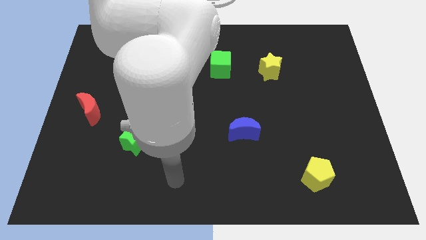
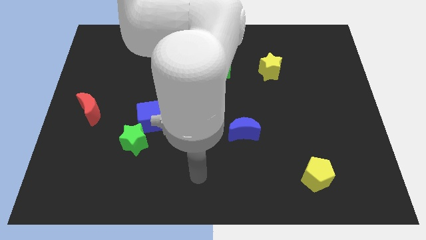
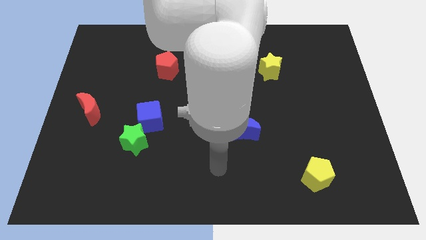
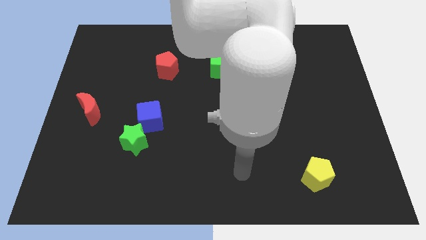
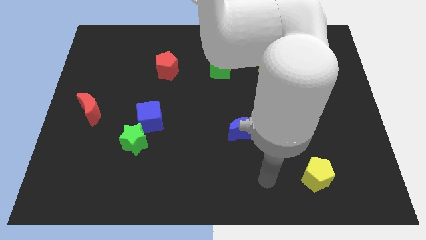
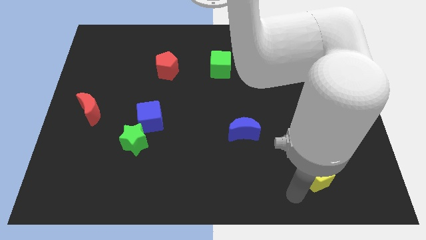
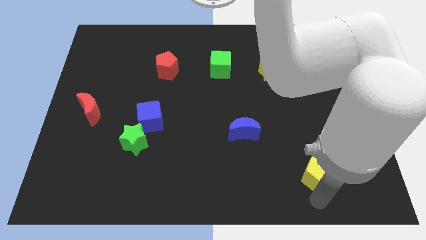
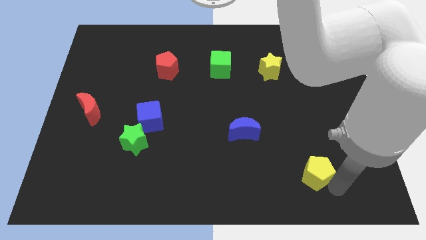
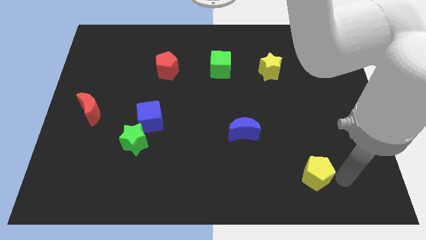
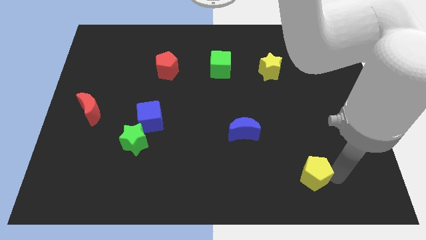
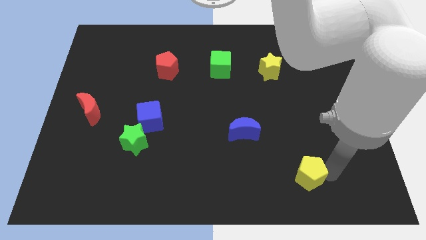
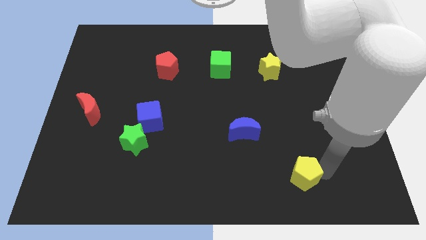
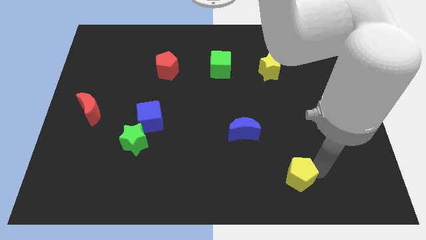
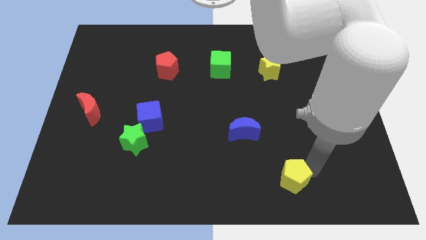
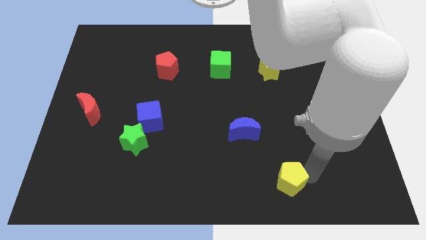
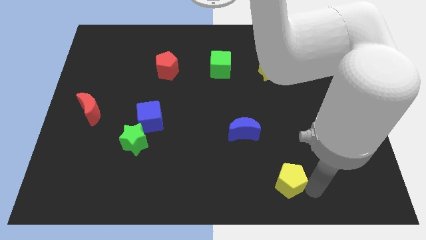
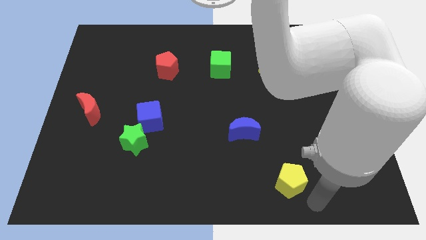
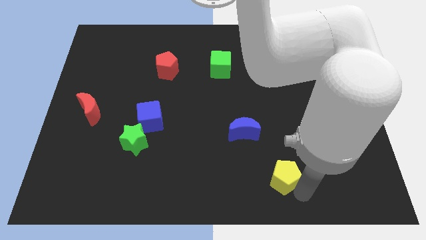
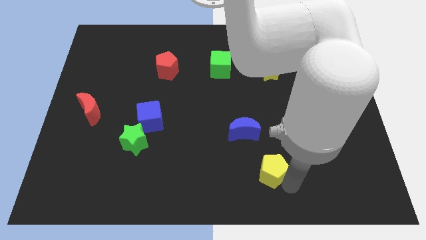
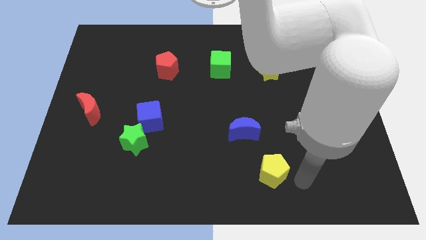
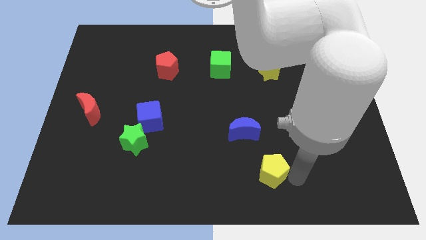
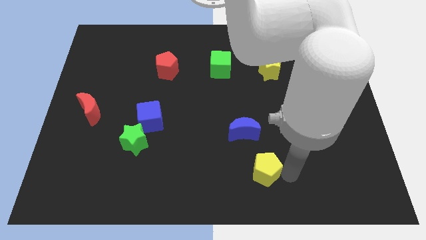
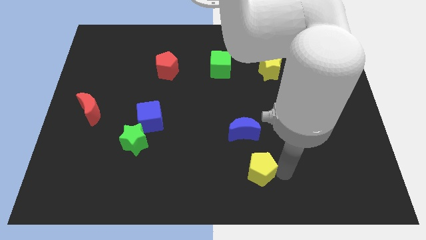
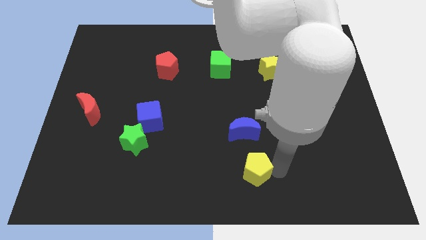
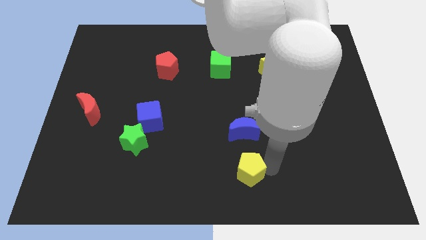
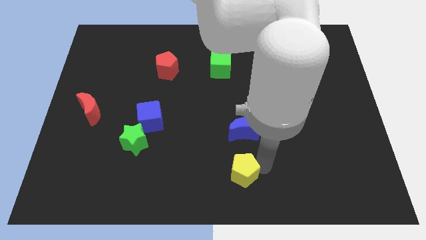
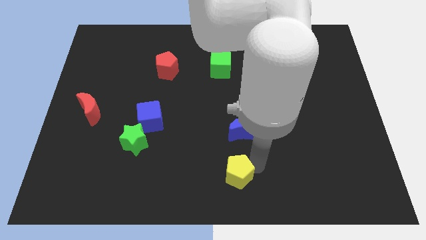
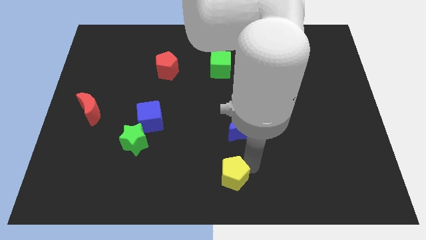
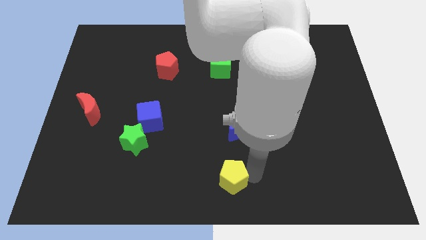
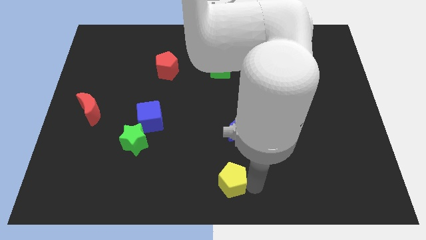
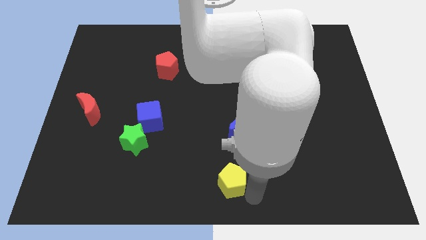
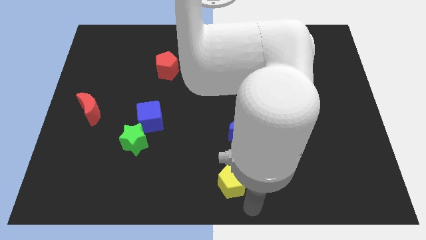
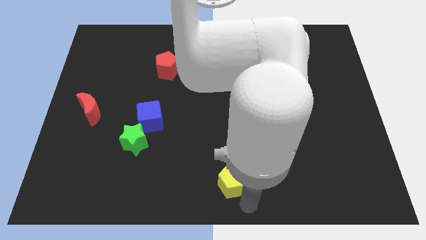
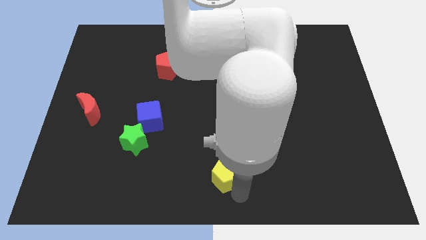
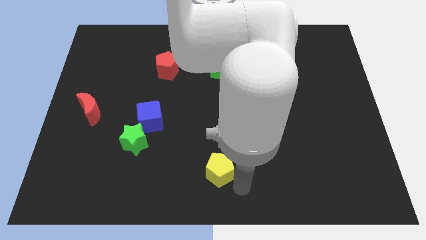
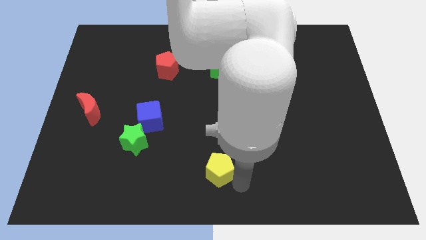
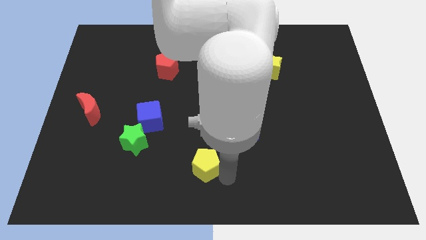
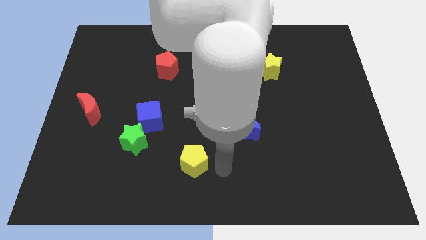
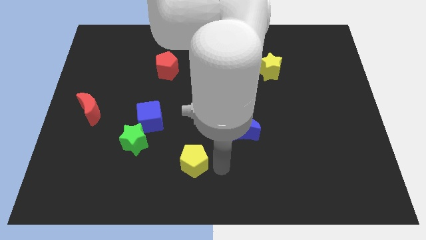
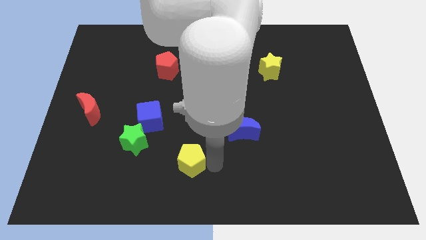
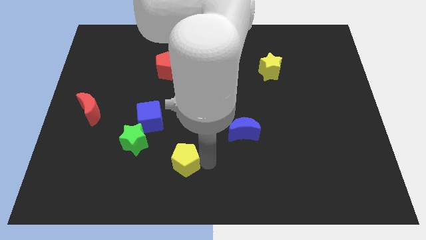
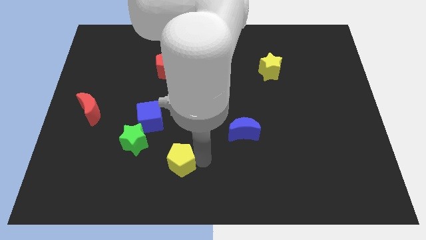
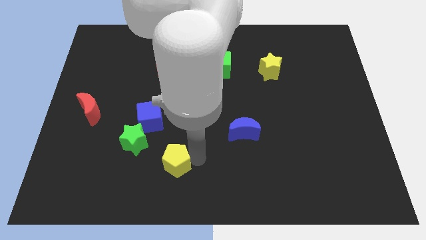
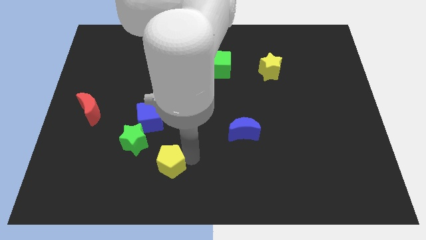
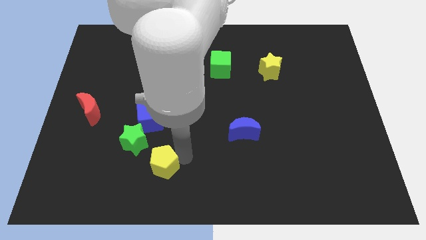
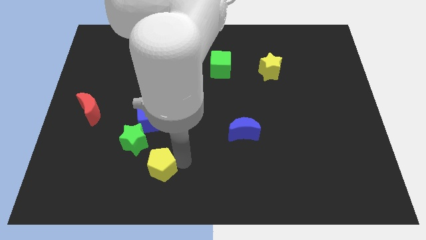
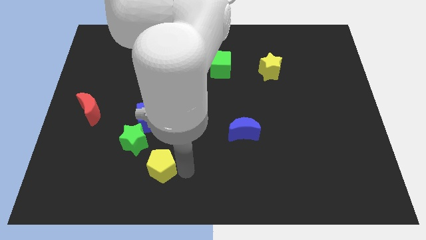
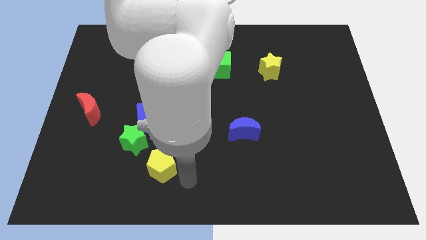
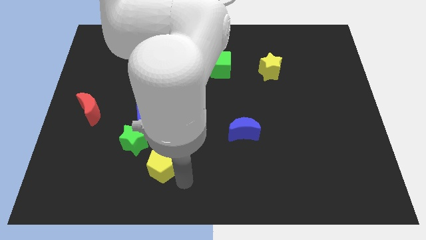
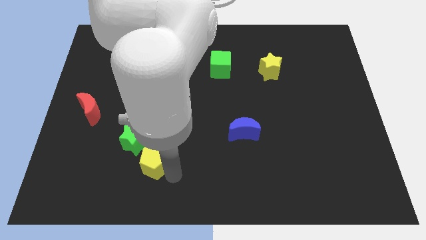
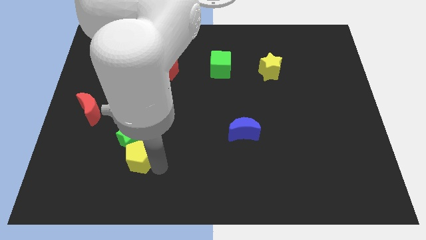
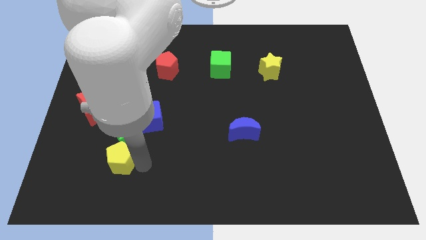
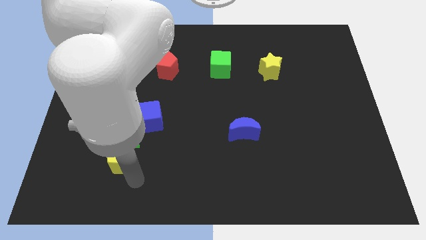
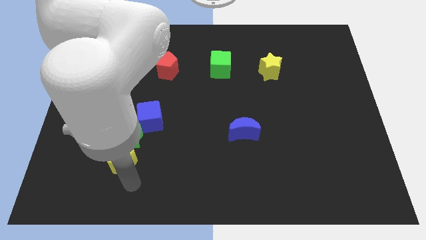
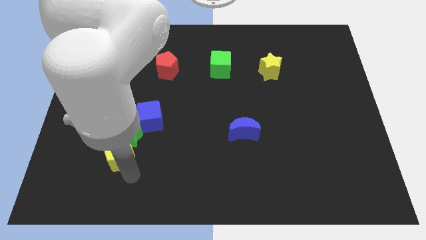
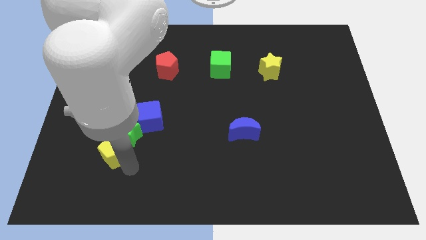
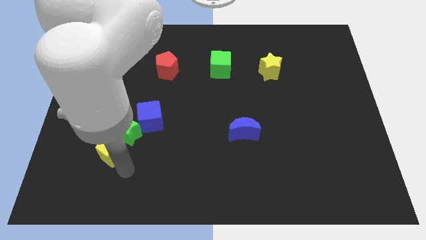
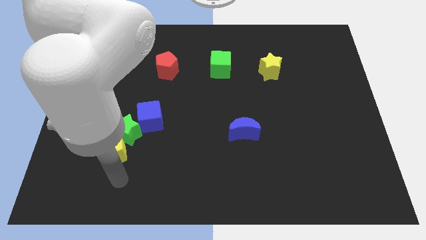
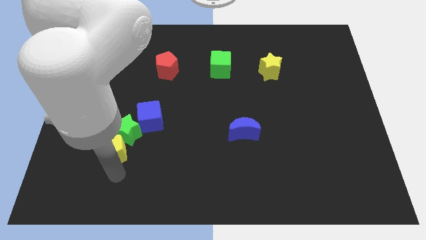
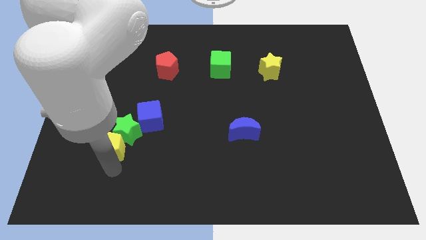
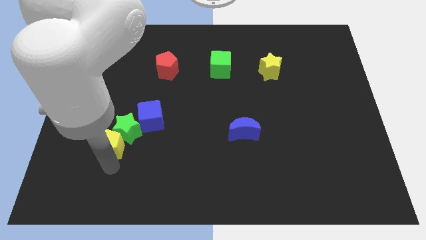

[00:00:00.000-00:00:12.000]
slide the yellow pentagon to the bottom right of the red moon

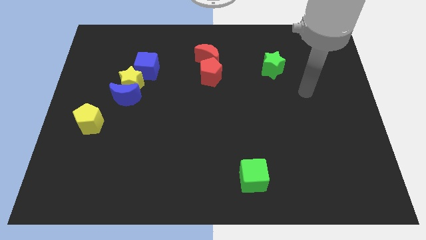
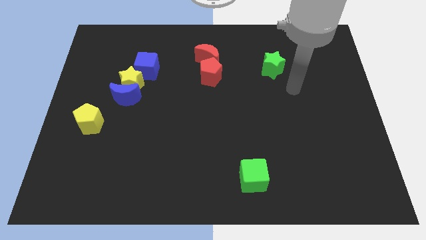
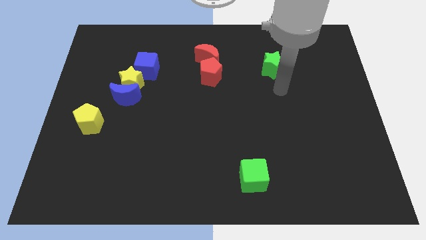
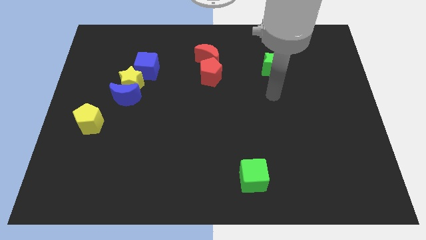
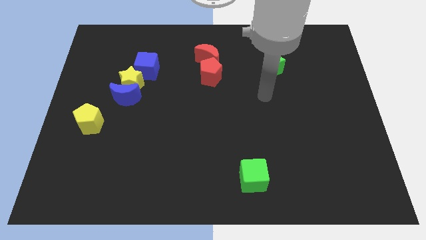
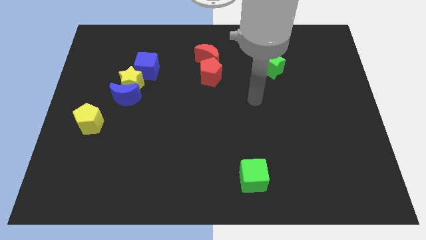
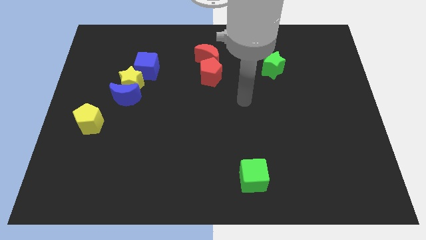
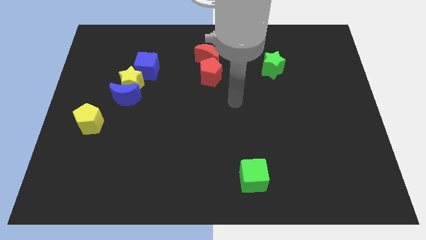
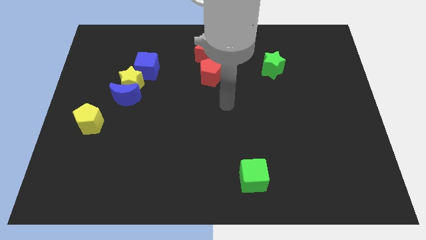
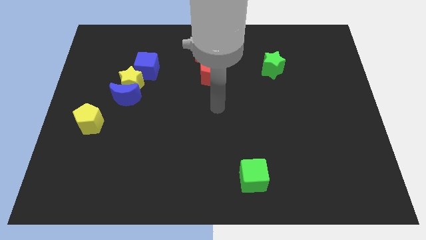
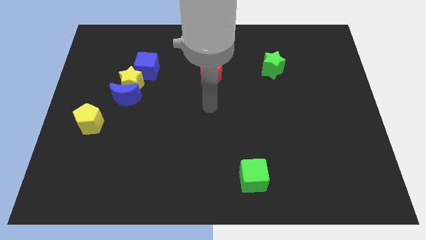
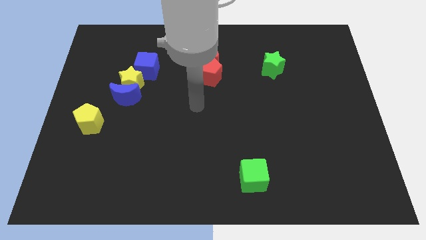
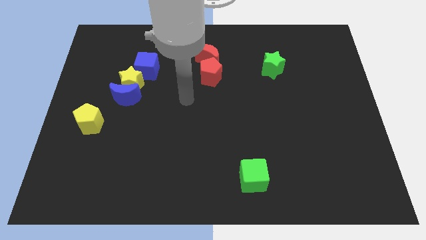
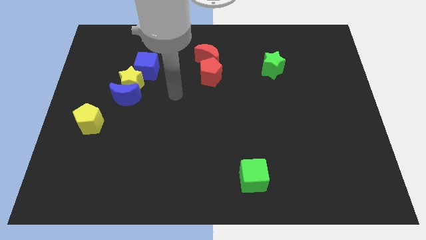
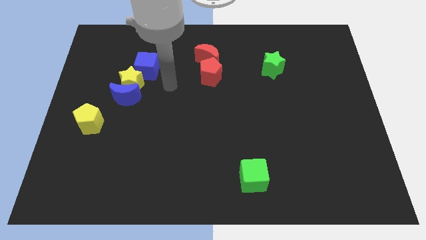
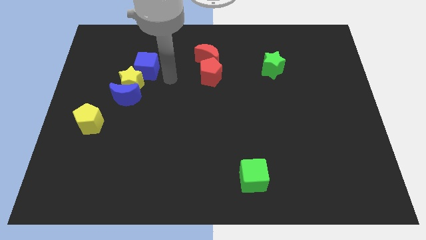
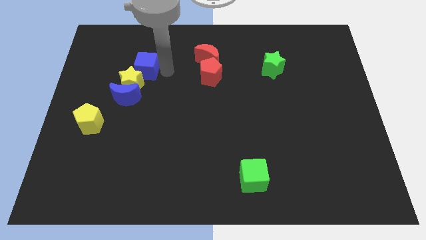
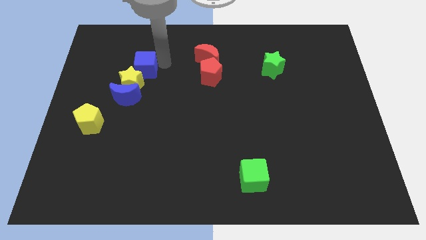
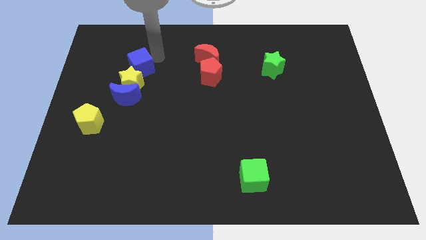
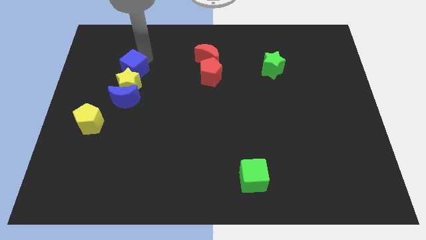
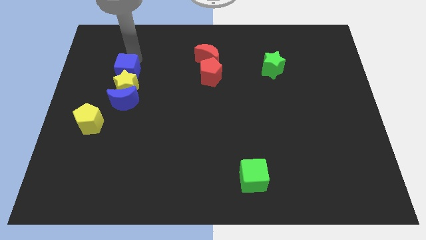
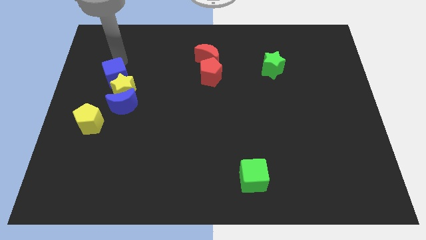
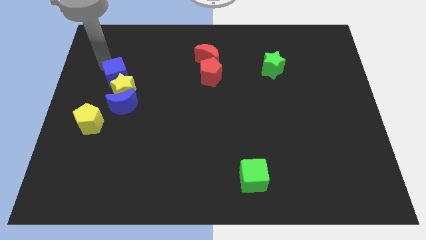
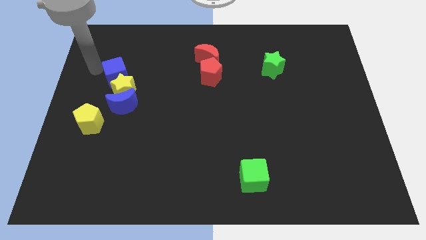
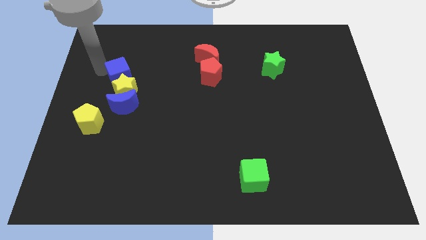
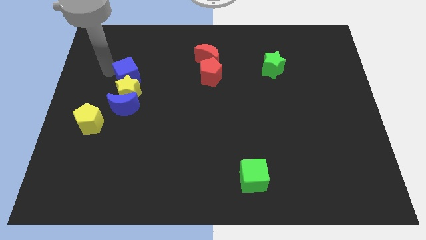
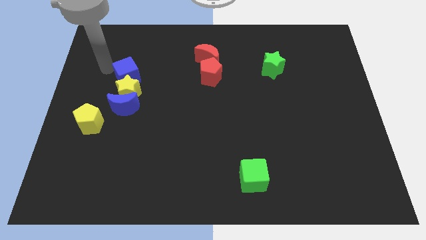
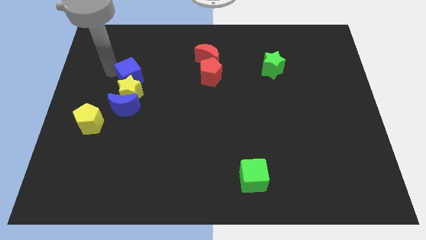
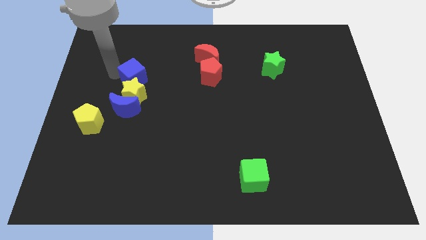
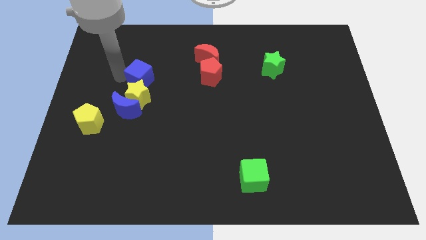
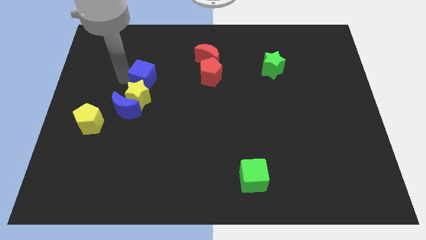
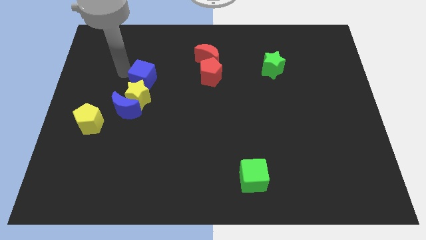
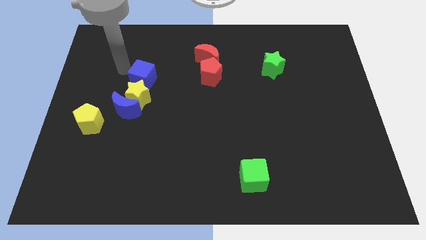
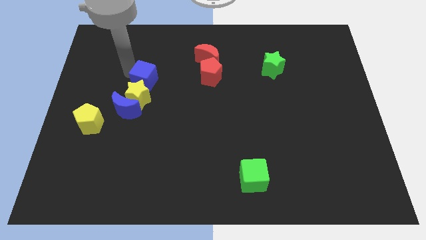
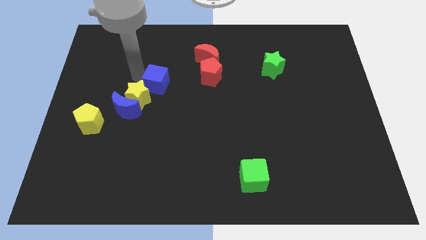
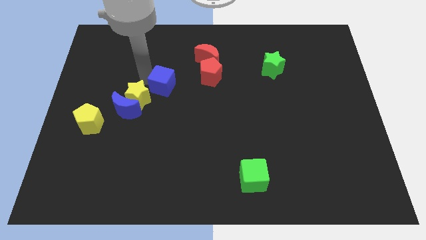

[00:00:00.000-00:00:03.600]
slide the blue cube just right of the yellow star
